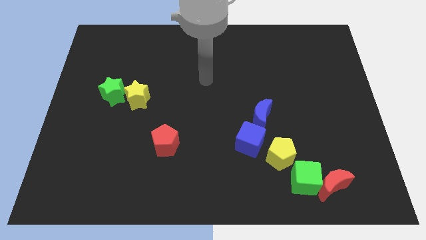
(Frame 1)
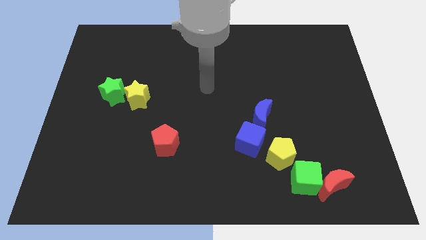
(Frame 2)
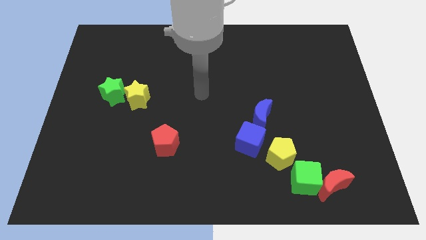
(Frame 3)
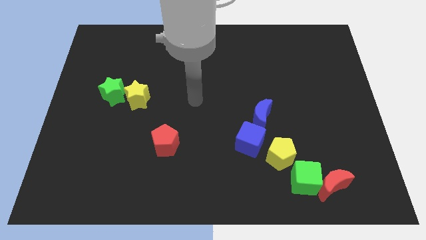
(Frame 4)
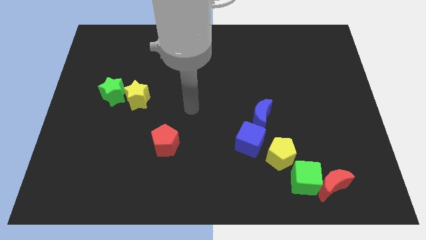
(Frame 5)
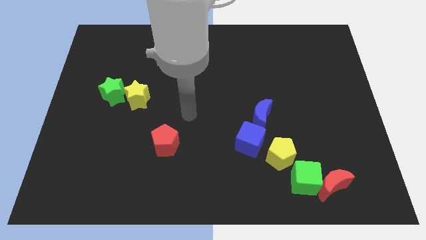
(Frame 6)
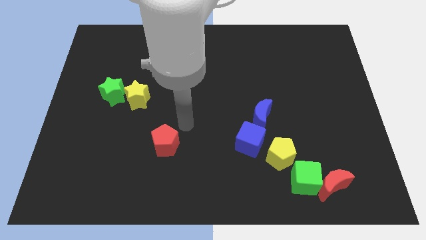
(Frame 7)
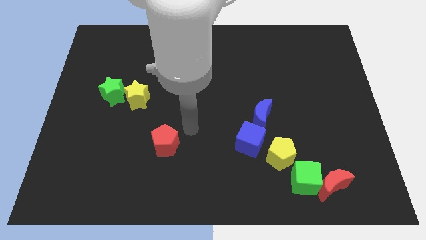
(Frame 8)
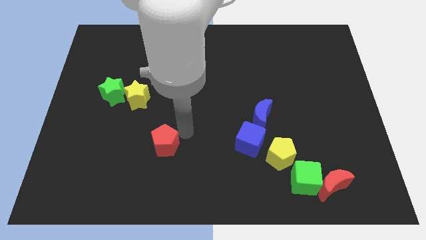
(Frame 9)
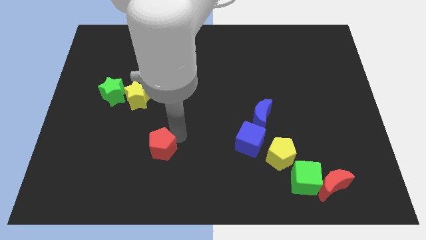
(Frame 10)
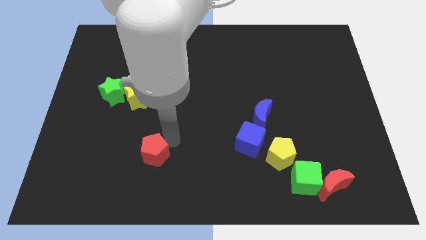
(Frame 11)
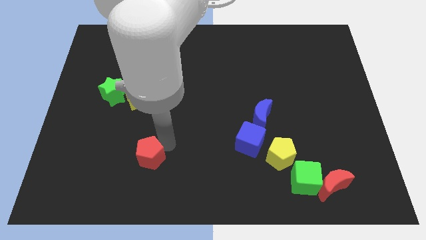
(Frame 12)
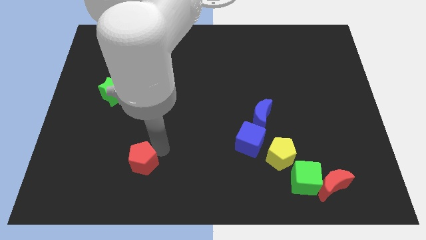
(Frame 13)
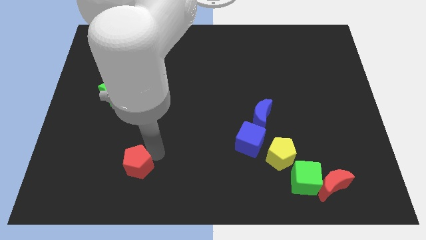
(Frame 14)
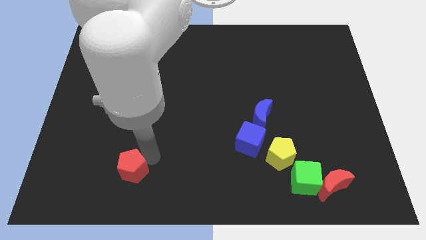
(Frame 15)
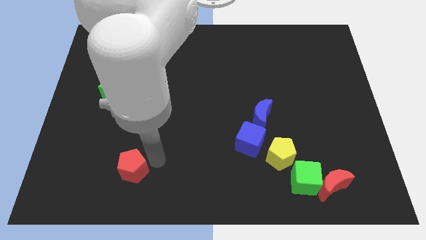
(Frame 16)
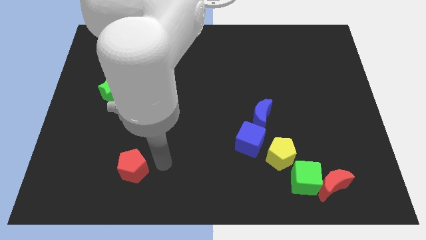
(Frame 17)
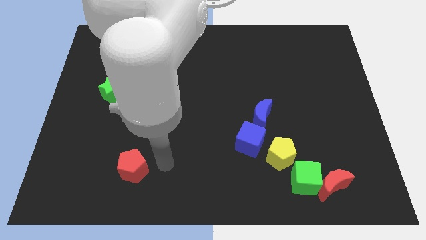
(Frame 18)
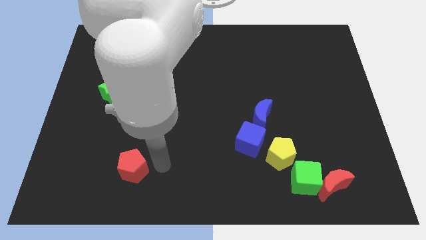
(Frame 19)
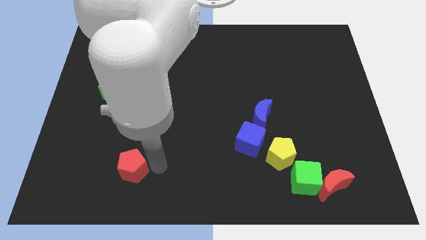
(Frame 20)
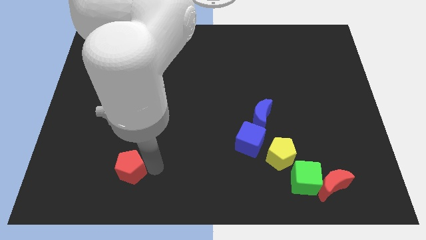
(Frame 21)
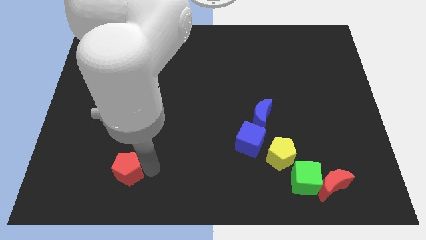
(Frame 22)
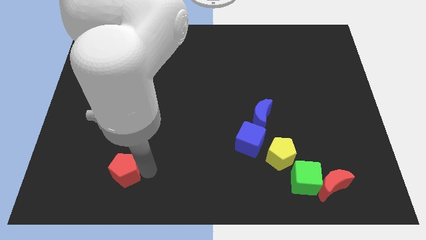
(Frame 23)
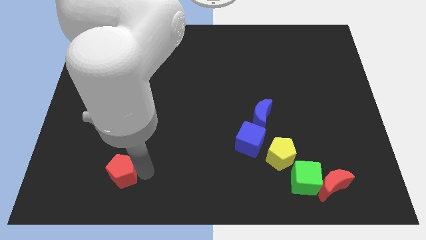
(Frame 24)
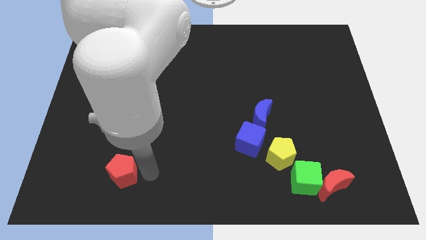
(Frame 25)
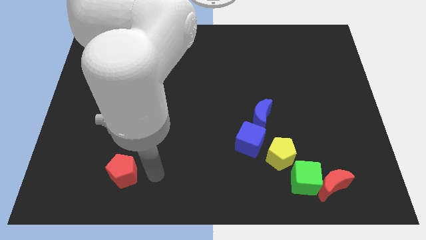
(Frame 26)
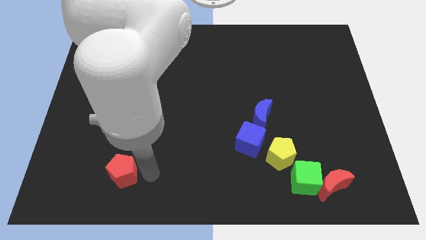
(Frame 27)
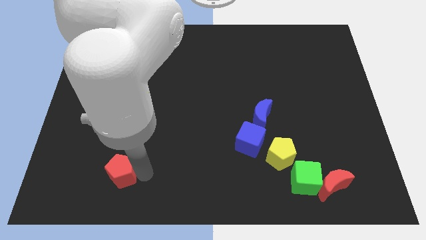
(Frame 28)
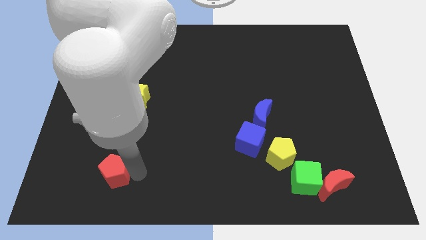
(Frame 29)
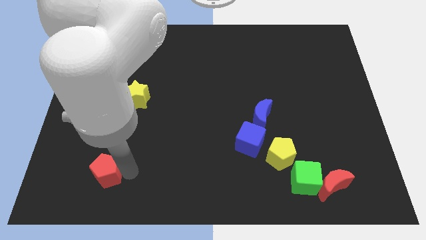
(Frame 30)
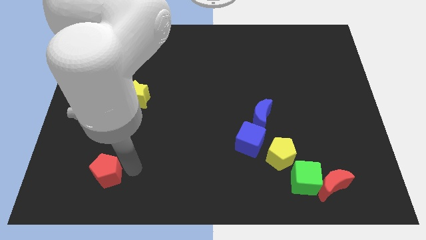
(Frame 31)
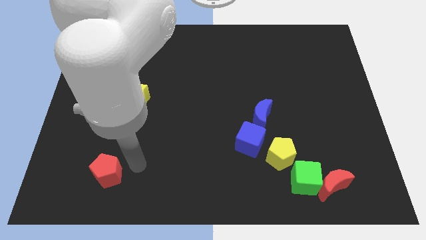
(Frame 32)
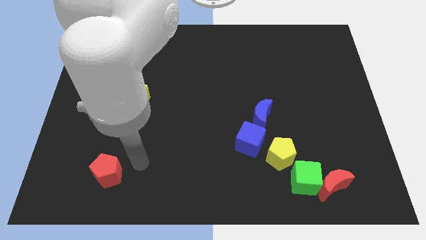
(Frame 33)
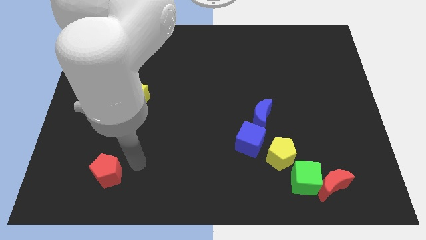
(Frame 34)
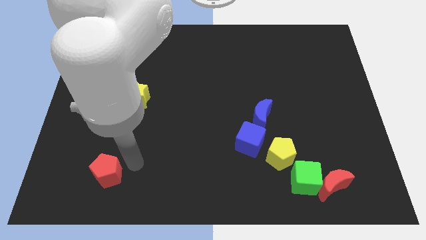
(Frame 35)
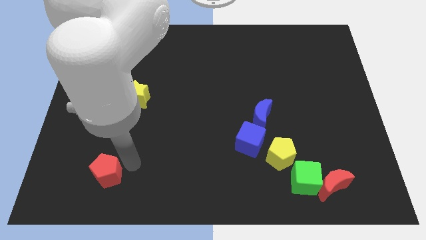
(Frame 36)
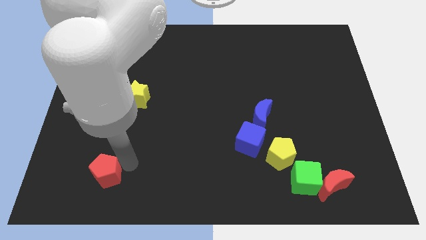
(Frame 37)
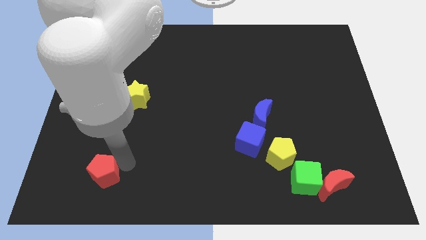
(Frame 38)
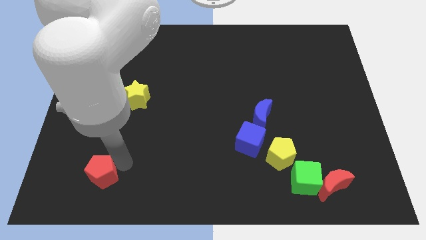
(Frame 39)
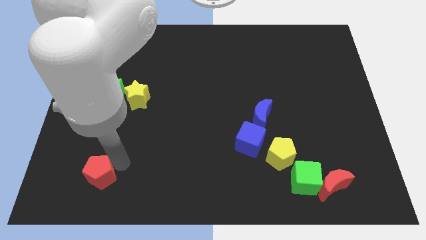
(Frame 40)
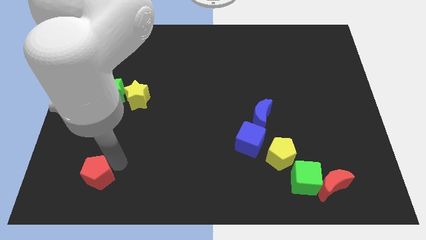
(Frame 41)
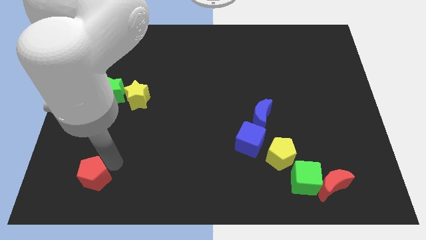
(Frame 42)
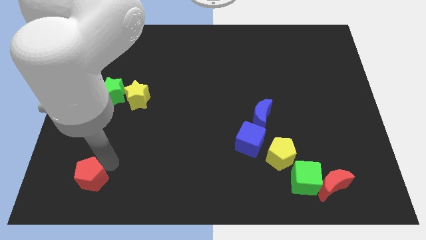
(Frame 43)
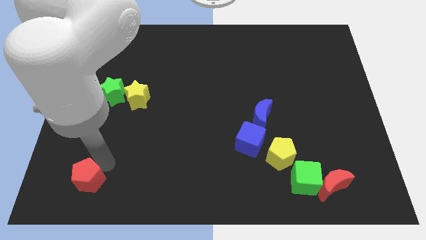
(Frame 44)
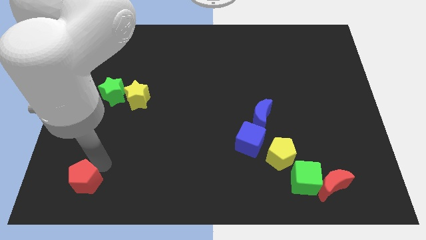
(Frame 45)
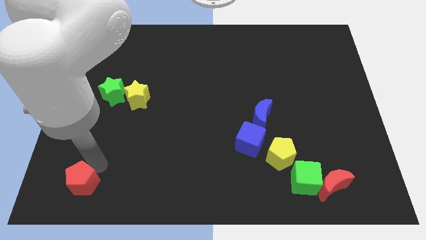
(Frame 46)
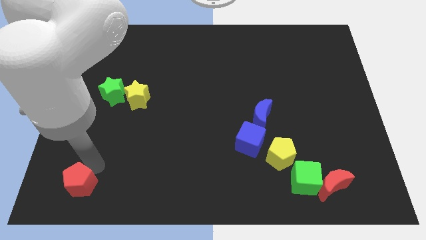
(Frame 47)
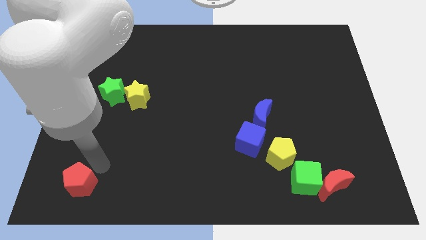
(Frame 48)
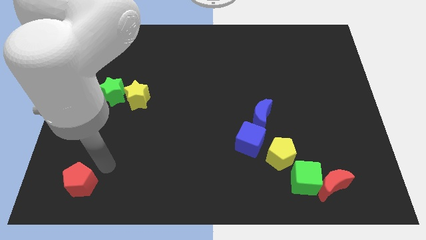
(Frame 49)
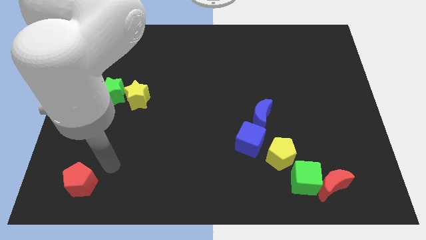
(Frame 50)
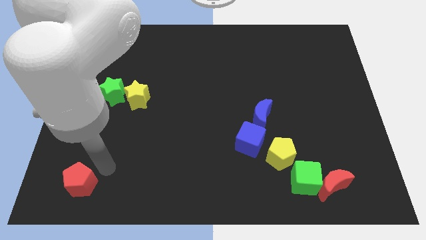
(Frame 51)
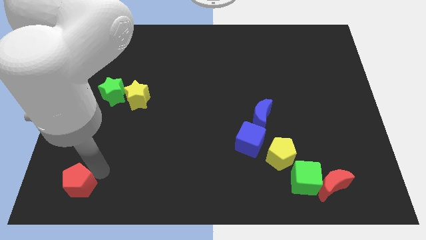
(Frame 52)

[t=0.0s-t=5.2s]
push the red pentagon to the lower left corner
